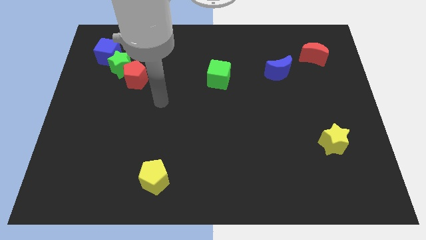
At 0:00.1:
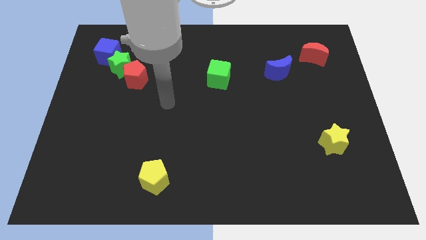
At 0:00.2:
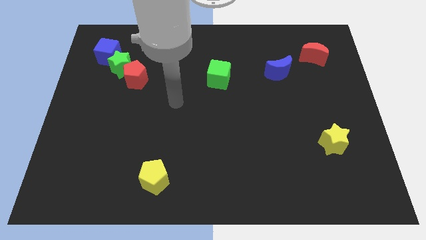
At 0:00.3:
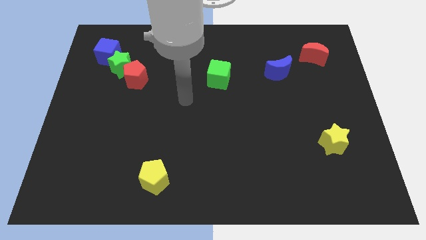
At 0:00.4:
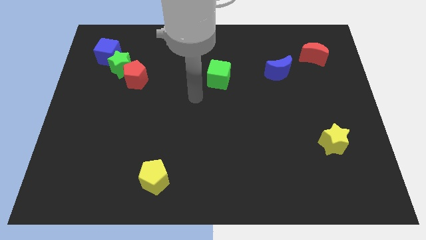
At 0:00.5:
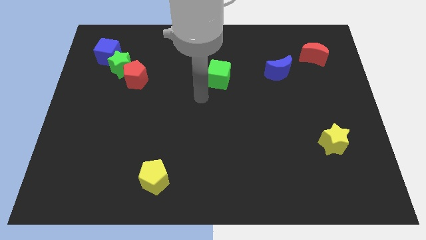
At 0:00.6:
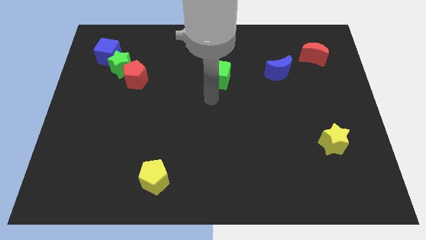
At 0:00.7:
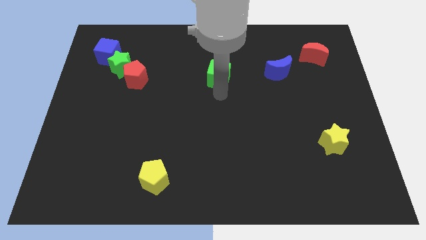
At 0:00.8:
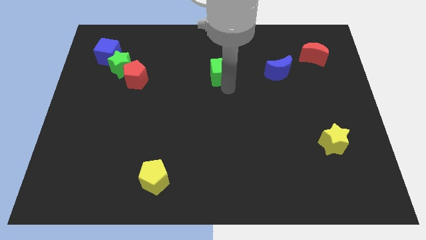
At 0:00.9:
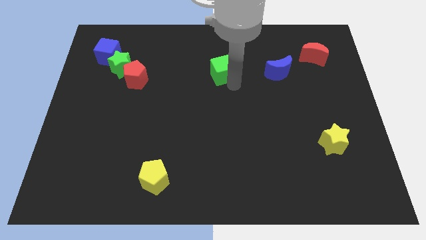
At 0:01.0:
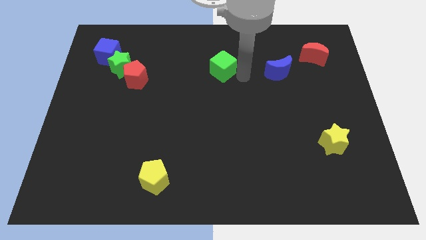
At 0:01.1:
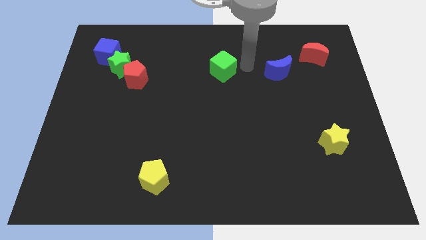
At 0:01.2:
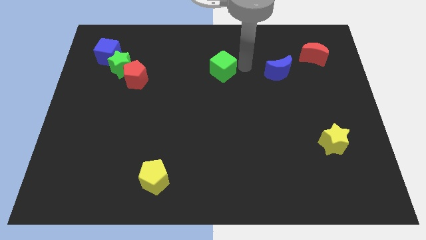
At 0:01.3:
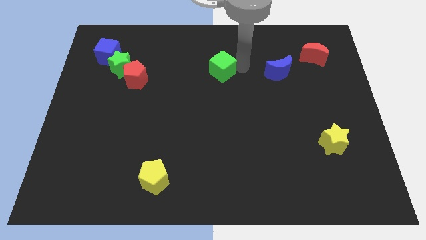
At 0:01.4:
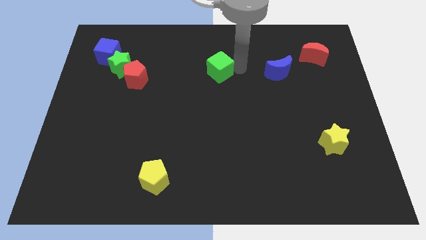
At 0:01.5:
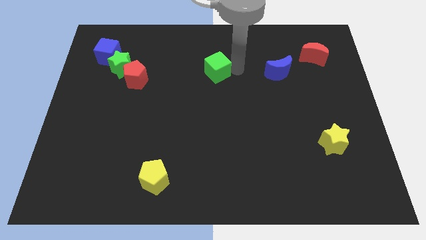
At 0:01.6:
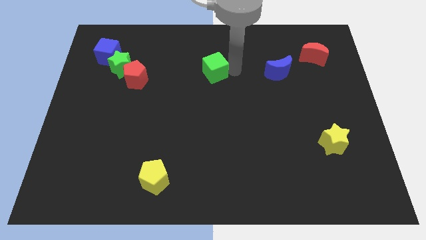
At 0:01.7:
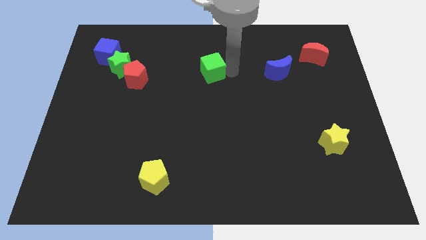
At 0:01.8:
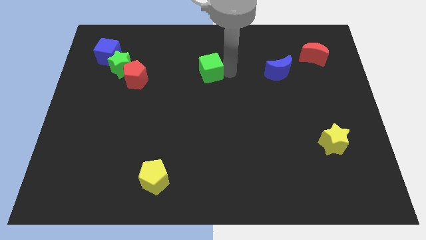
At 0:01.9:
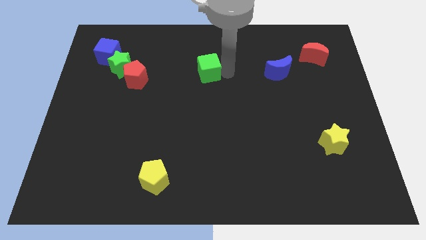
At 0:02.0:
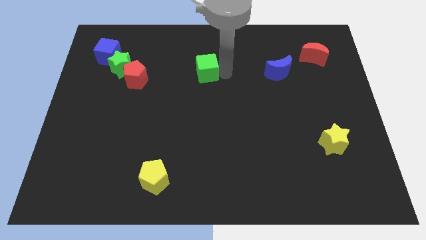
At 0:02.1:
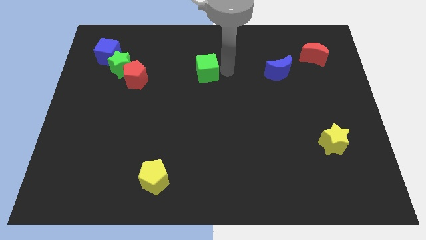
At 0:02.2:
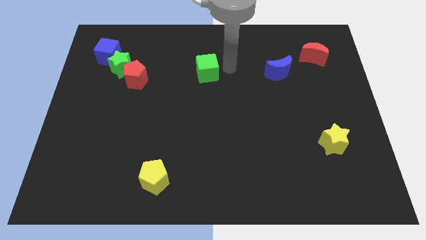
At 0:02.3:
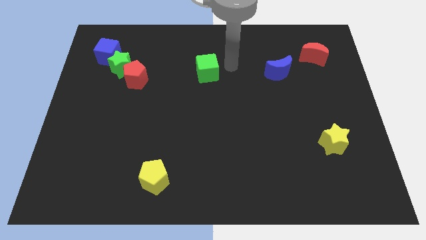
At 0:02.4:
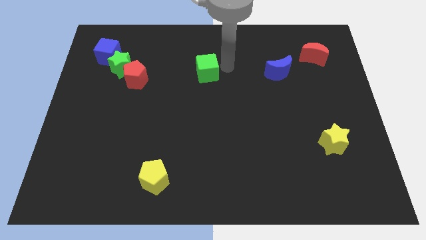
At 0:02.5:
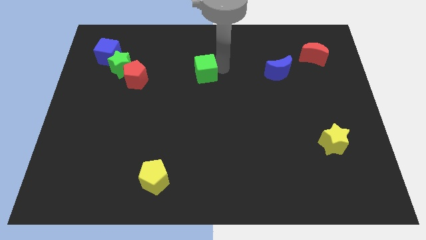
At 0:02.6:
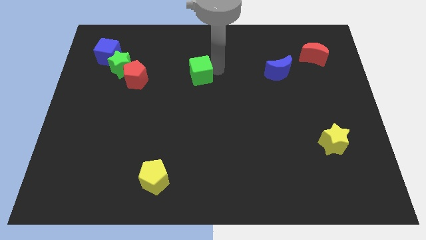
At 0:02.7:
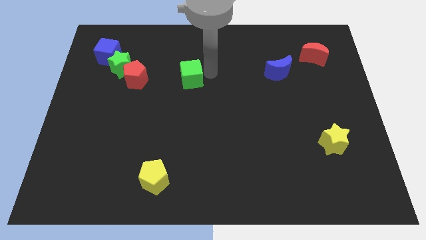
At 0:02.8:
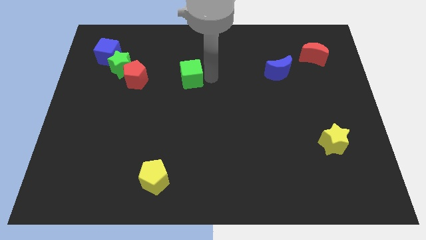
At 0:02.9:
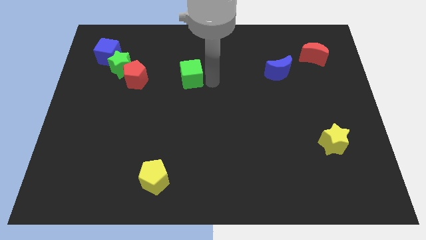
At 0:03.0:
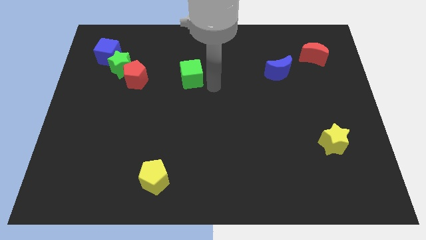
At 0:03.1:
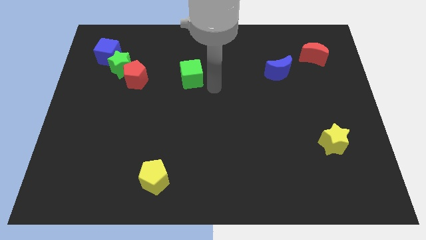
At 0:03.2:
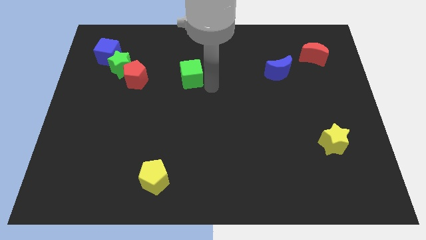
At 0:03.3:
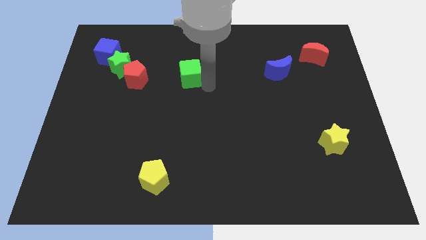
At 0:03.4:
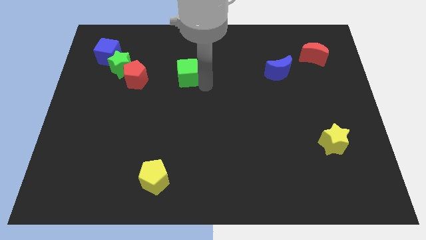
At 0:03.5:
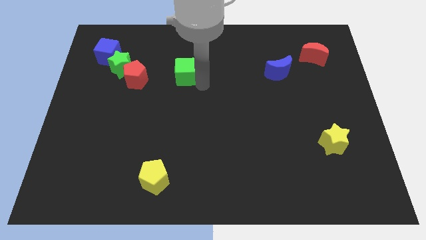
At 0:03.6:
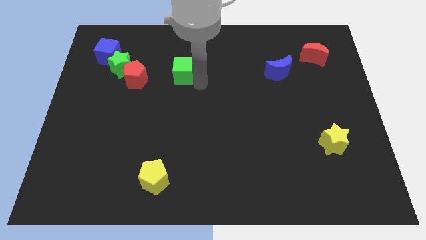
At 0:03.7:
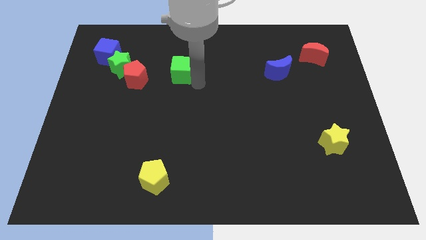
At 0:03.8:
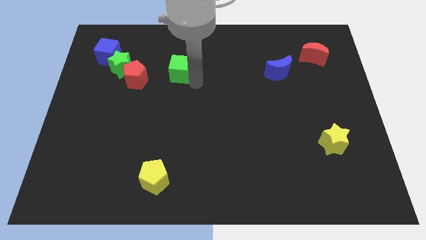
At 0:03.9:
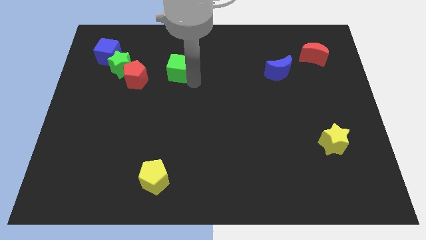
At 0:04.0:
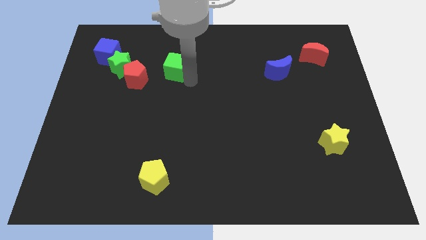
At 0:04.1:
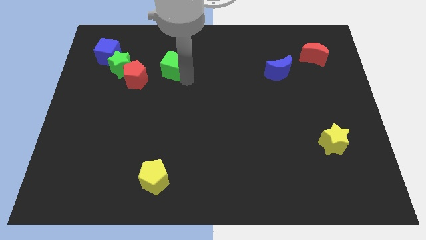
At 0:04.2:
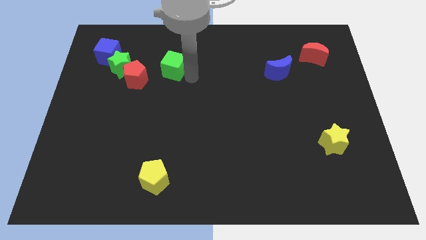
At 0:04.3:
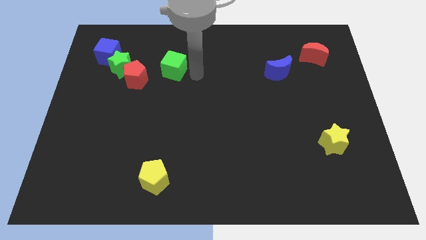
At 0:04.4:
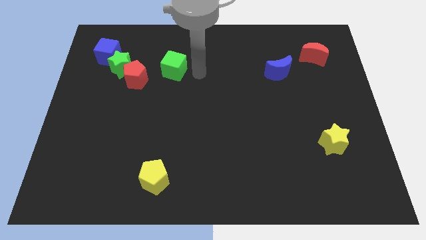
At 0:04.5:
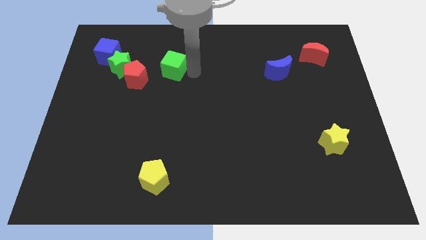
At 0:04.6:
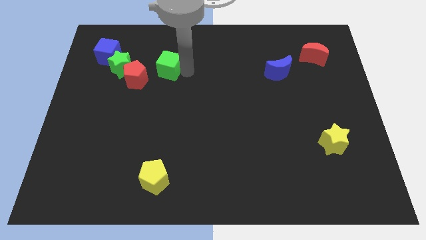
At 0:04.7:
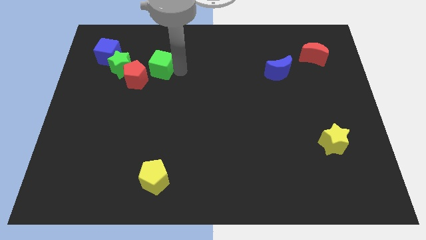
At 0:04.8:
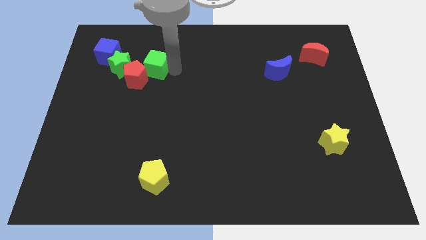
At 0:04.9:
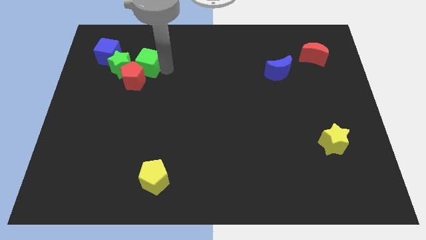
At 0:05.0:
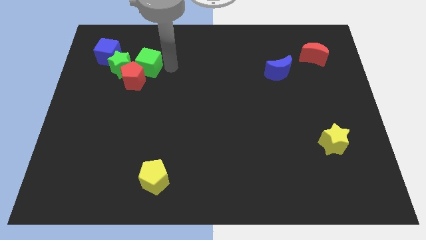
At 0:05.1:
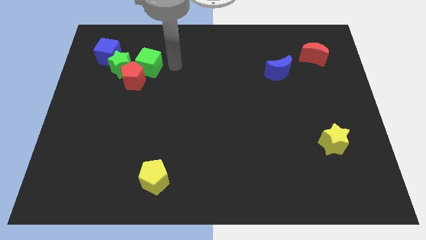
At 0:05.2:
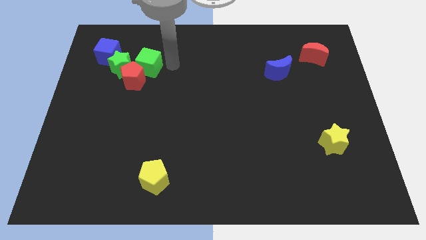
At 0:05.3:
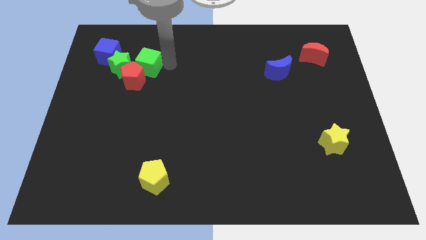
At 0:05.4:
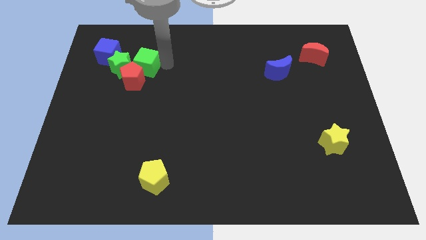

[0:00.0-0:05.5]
put the green cube to the green star

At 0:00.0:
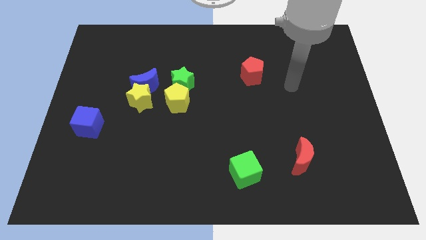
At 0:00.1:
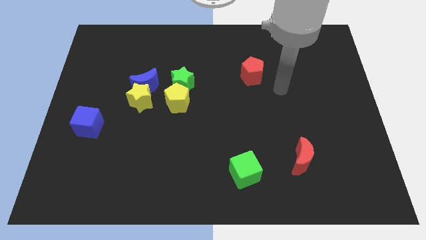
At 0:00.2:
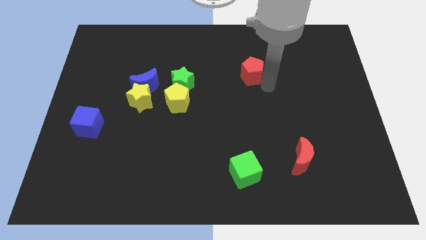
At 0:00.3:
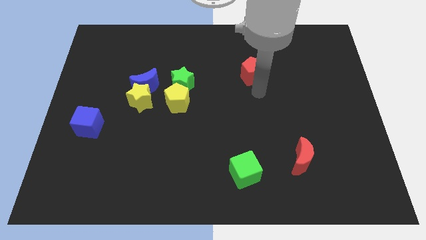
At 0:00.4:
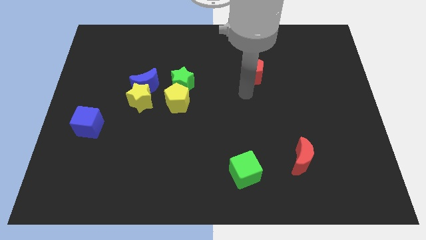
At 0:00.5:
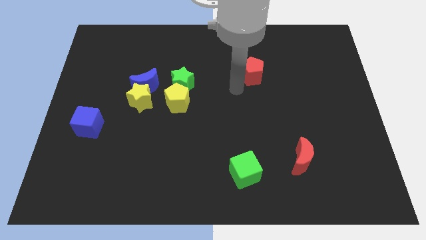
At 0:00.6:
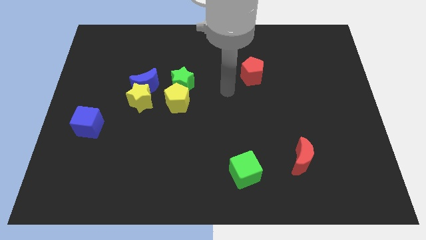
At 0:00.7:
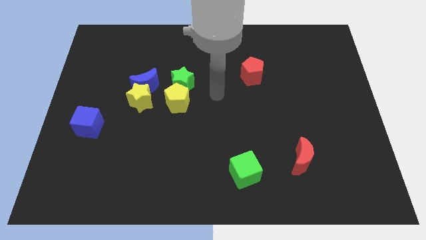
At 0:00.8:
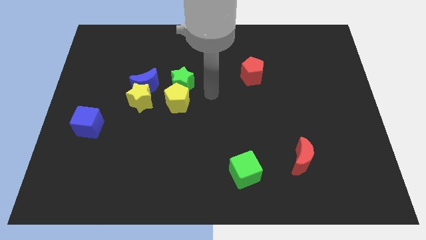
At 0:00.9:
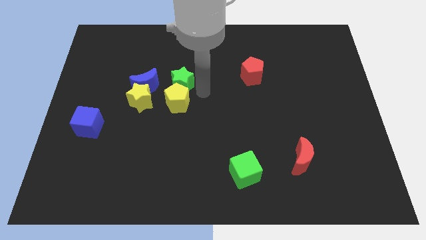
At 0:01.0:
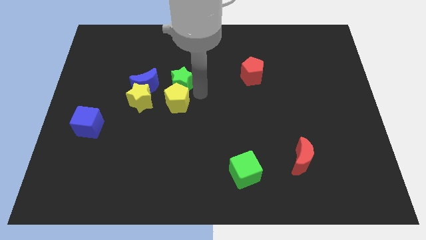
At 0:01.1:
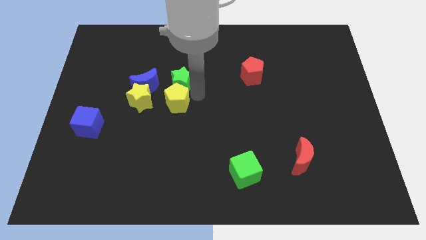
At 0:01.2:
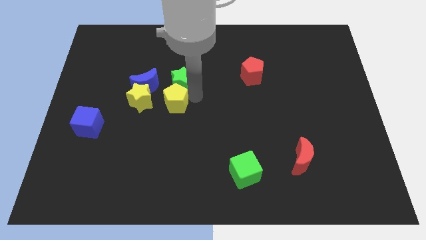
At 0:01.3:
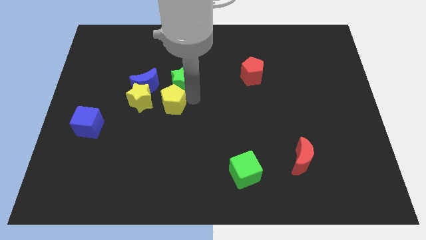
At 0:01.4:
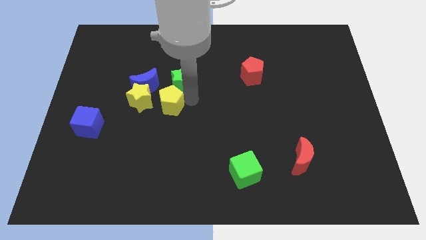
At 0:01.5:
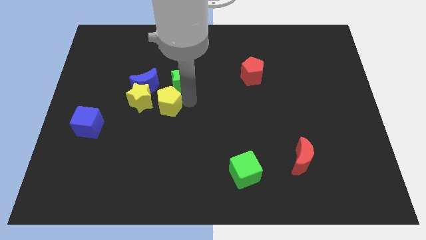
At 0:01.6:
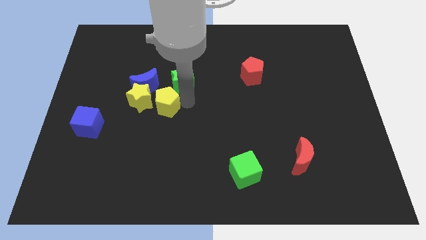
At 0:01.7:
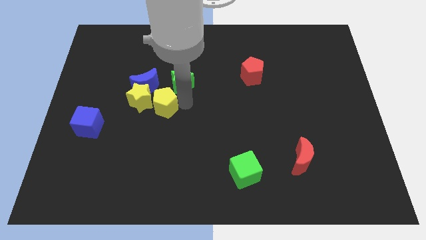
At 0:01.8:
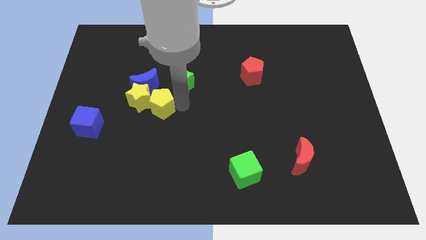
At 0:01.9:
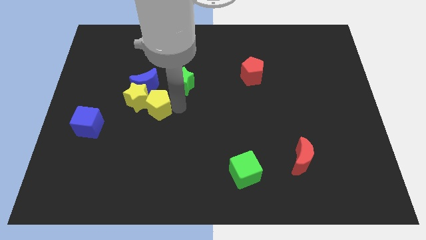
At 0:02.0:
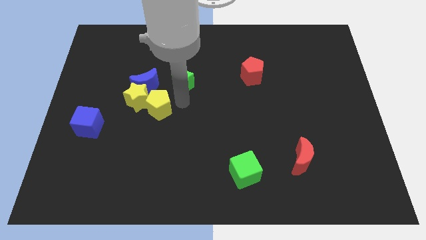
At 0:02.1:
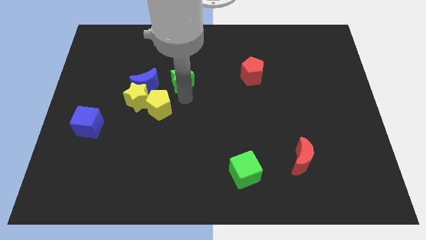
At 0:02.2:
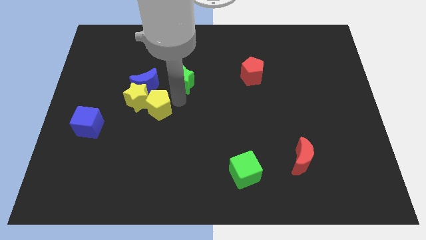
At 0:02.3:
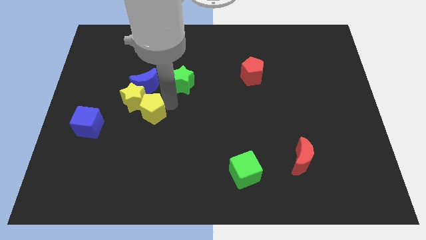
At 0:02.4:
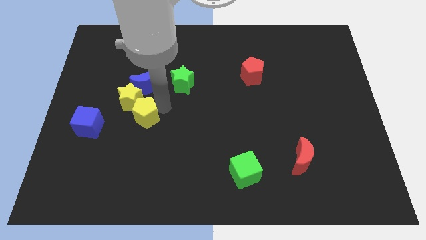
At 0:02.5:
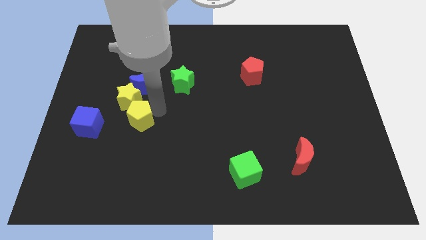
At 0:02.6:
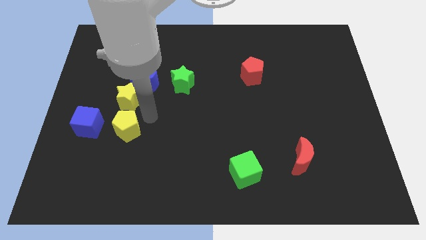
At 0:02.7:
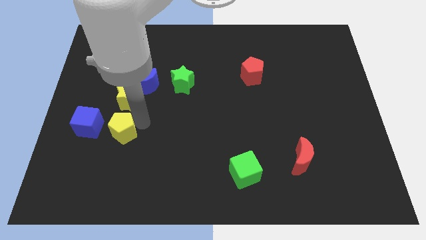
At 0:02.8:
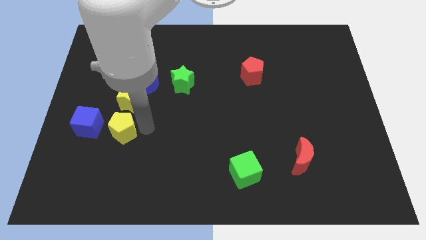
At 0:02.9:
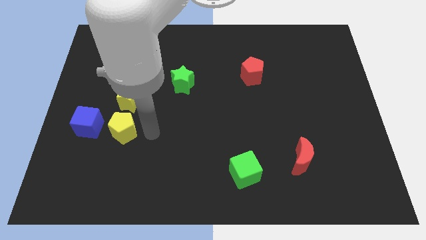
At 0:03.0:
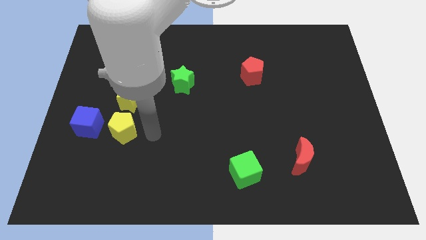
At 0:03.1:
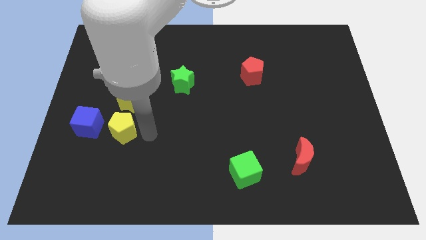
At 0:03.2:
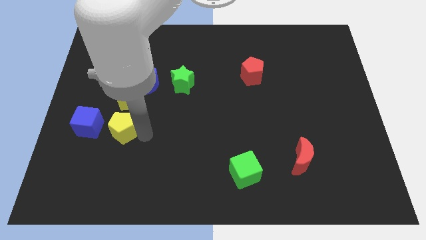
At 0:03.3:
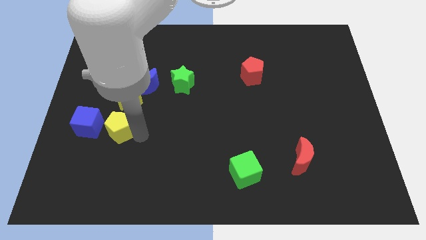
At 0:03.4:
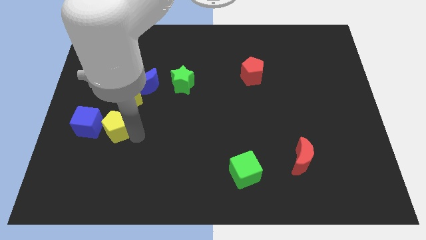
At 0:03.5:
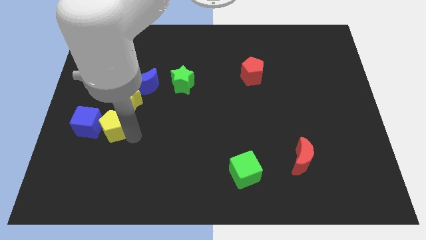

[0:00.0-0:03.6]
put the yellow pentagon towards the blue cube
